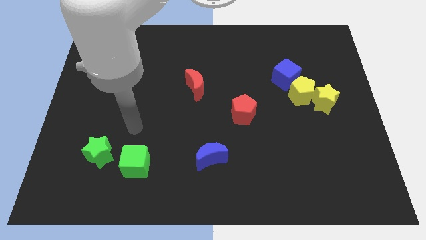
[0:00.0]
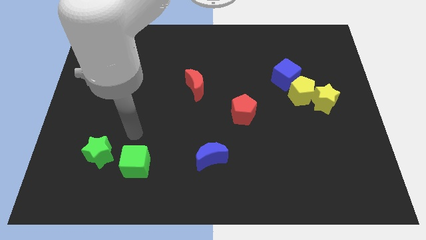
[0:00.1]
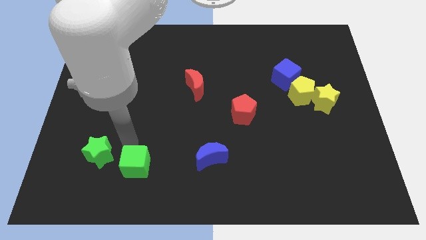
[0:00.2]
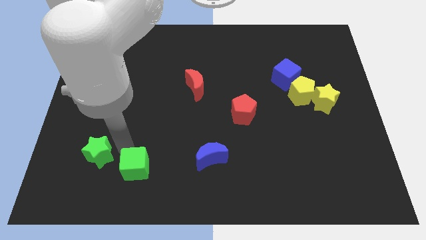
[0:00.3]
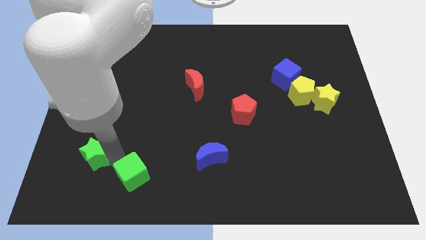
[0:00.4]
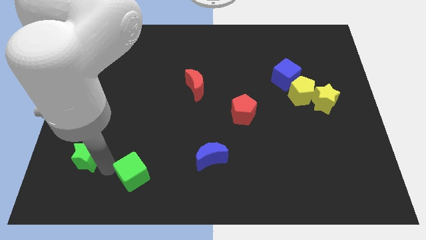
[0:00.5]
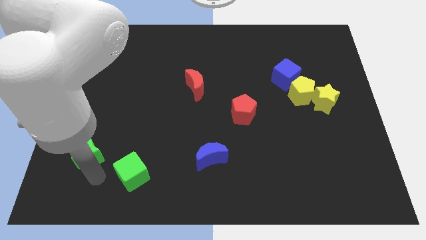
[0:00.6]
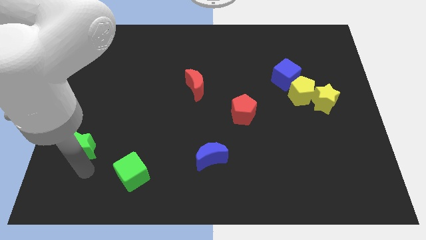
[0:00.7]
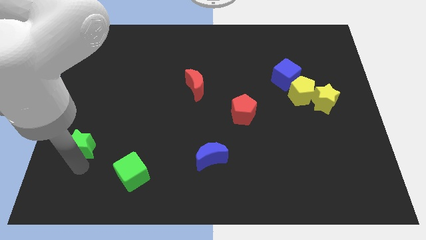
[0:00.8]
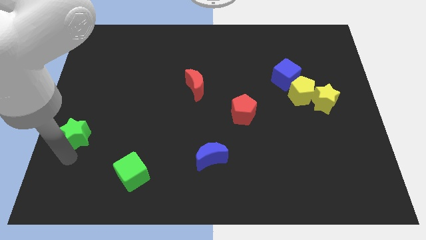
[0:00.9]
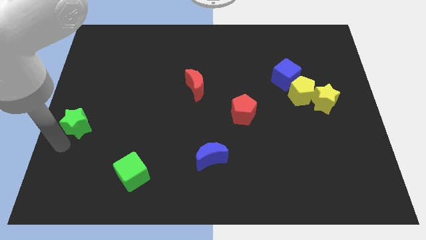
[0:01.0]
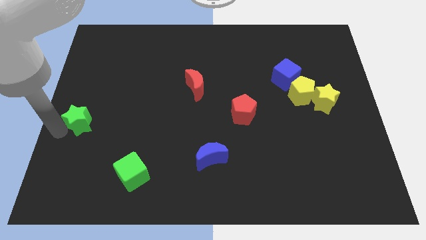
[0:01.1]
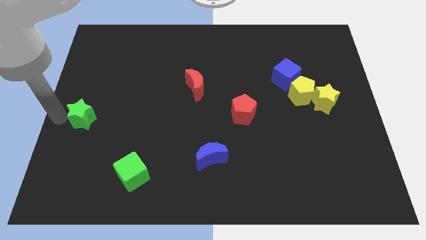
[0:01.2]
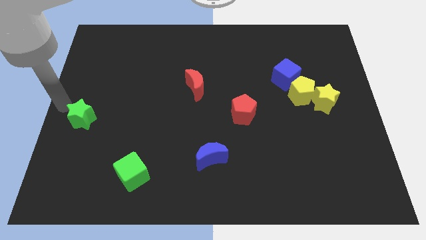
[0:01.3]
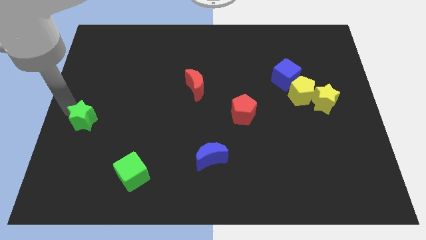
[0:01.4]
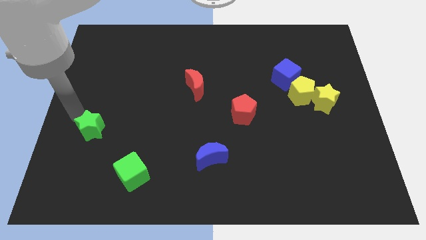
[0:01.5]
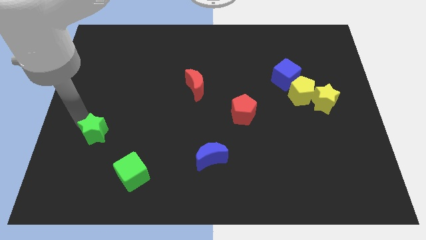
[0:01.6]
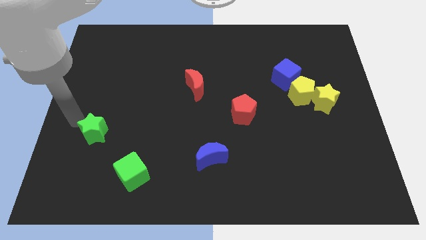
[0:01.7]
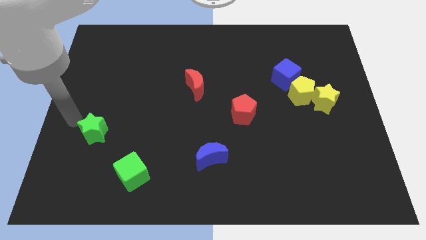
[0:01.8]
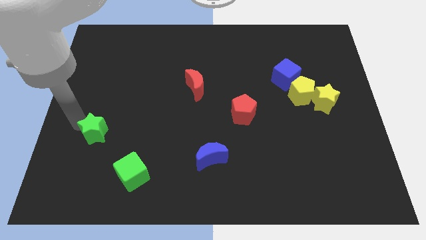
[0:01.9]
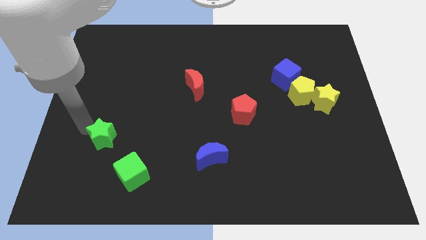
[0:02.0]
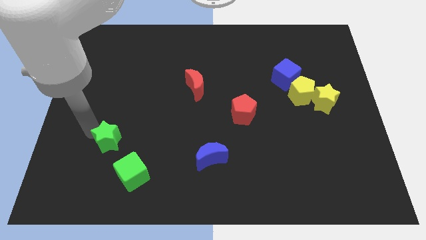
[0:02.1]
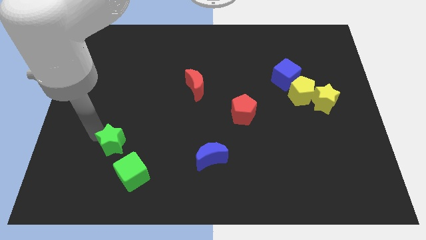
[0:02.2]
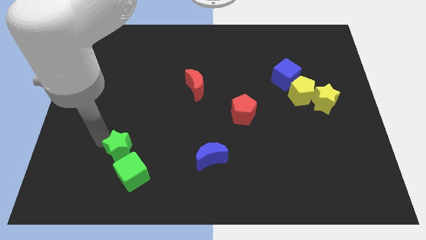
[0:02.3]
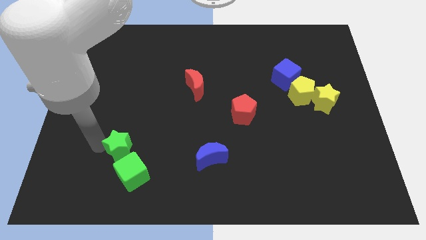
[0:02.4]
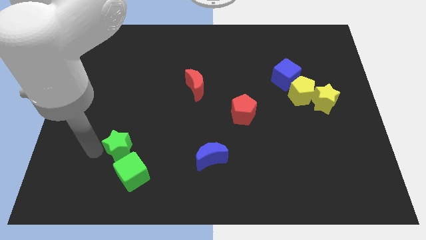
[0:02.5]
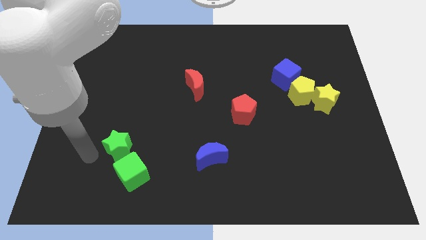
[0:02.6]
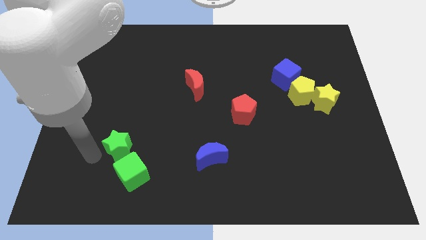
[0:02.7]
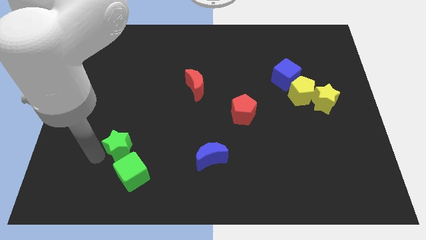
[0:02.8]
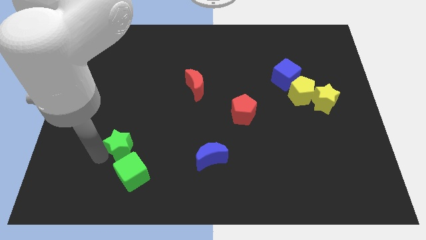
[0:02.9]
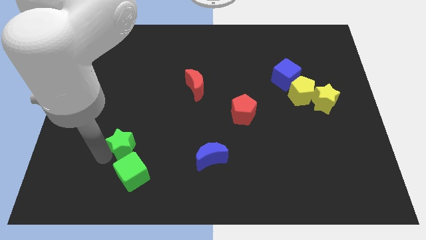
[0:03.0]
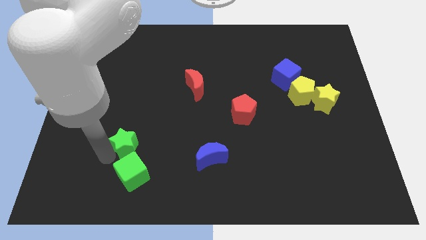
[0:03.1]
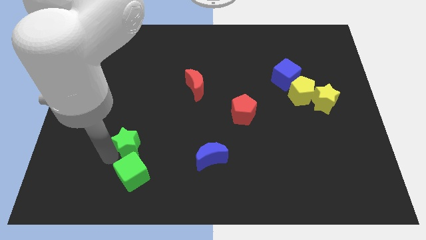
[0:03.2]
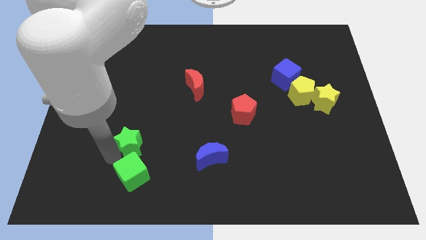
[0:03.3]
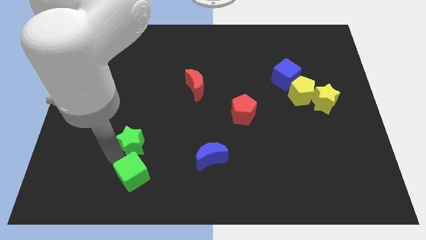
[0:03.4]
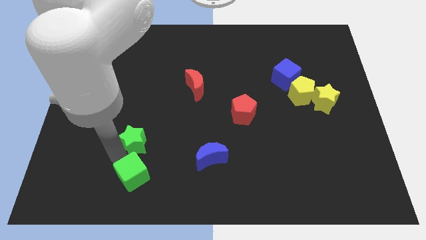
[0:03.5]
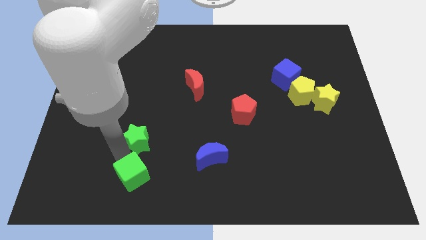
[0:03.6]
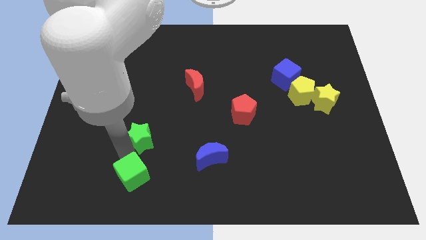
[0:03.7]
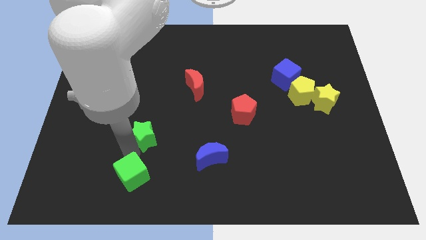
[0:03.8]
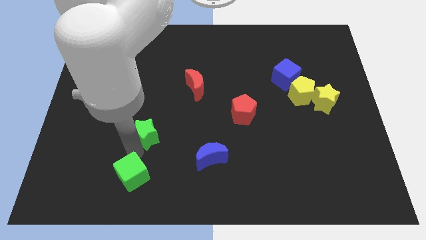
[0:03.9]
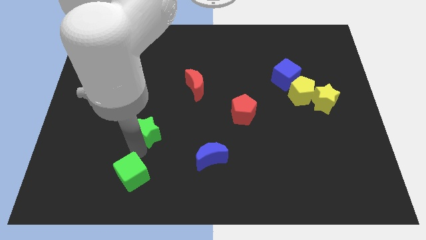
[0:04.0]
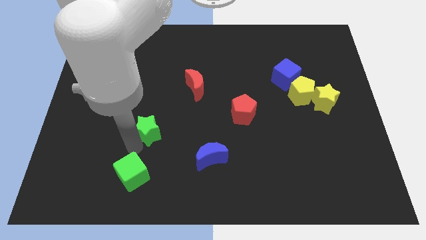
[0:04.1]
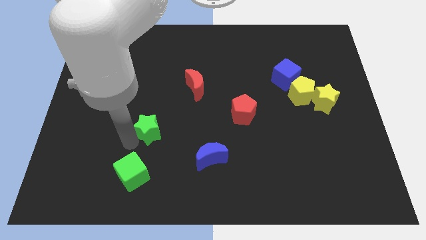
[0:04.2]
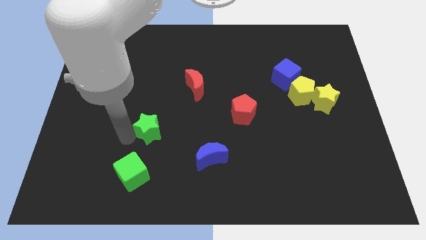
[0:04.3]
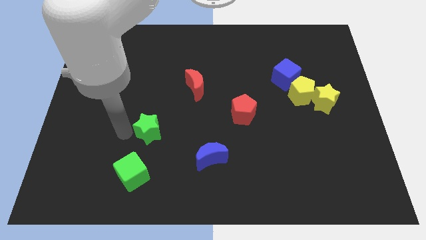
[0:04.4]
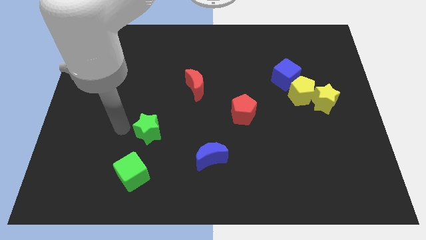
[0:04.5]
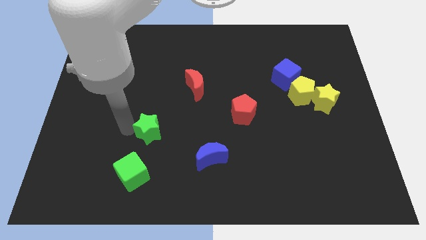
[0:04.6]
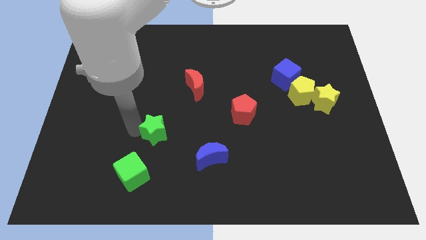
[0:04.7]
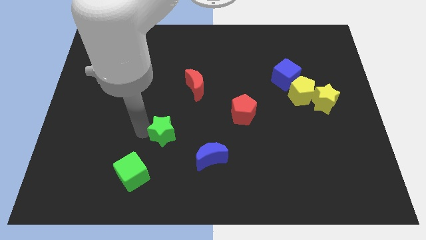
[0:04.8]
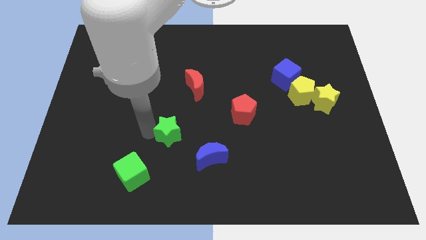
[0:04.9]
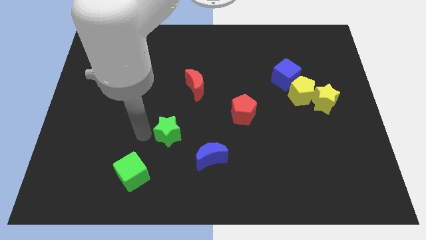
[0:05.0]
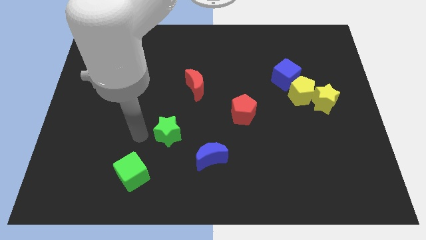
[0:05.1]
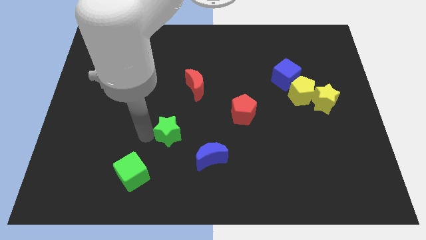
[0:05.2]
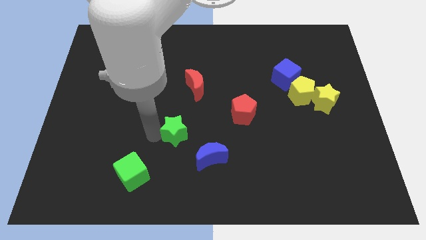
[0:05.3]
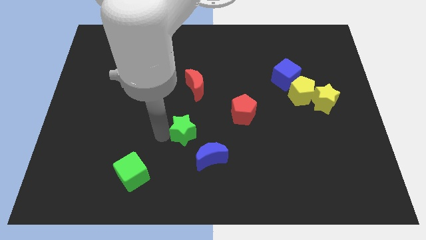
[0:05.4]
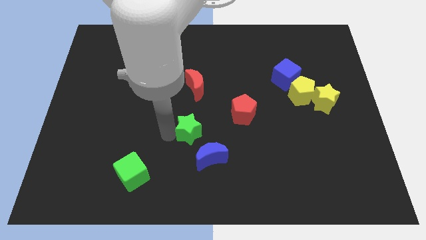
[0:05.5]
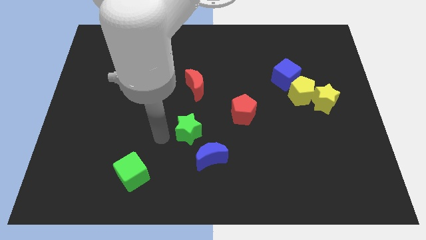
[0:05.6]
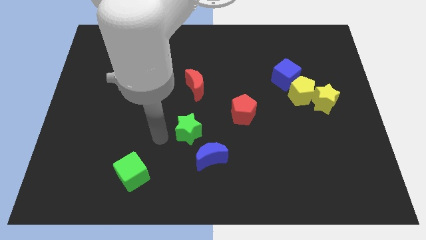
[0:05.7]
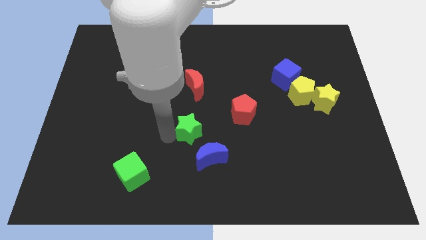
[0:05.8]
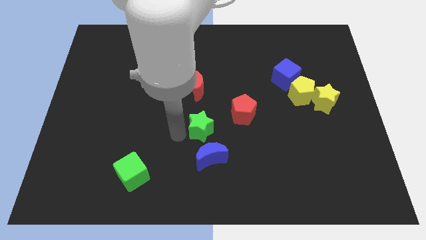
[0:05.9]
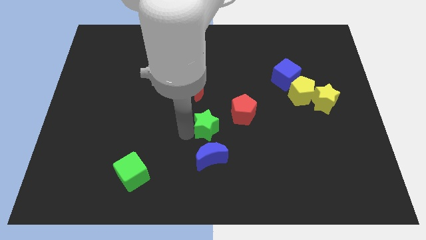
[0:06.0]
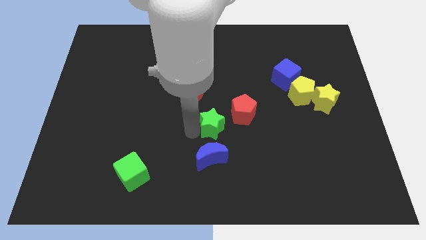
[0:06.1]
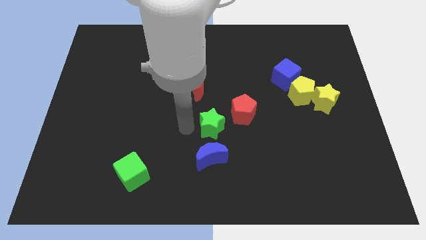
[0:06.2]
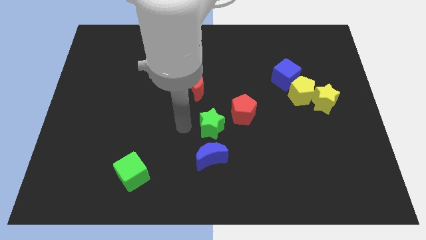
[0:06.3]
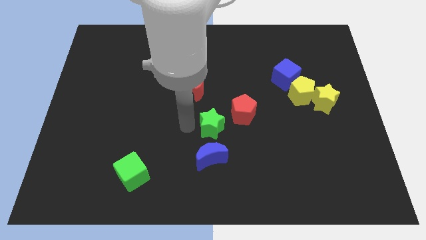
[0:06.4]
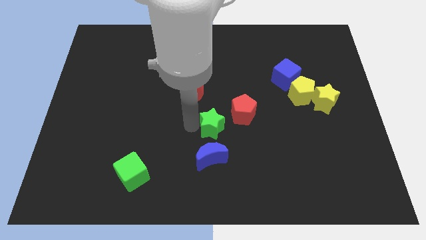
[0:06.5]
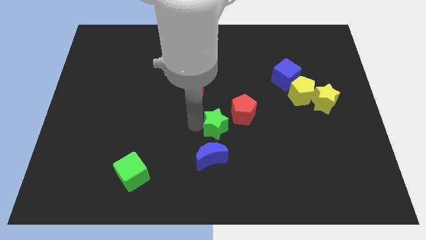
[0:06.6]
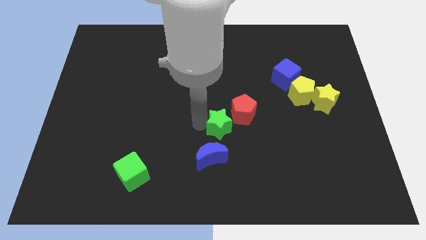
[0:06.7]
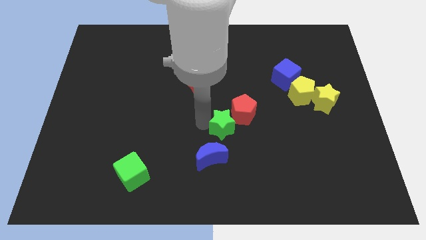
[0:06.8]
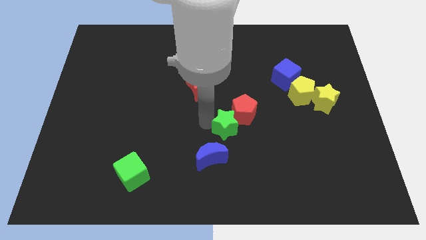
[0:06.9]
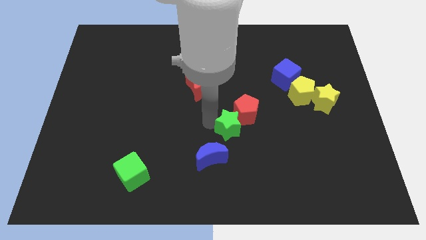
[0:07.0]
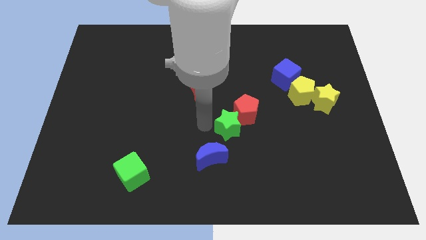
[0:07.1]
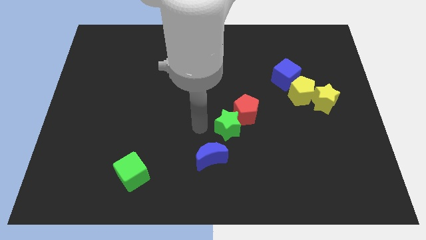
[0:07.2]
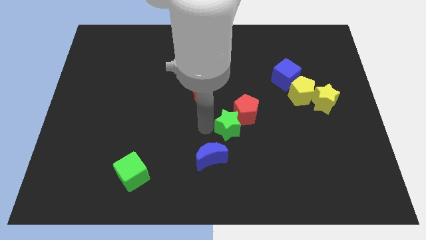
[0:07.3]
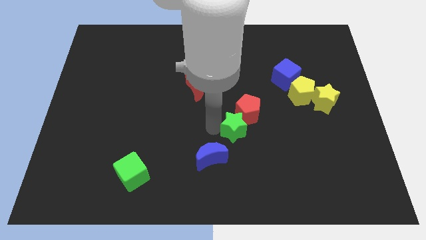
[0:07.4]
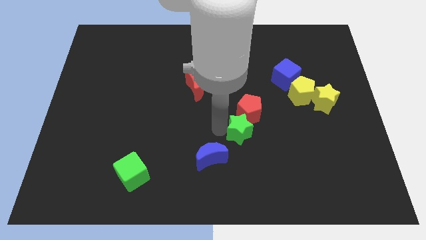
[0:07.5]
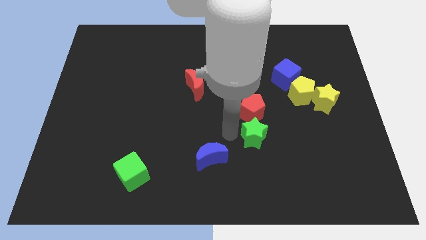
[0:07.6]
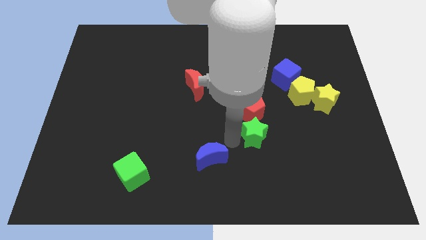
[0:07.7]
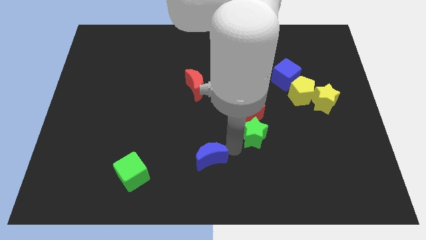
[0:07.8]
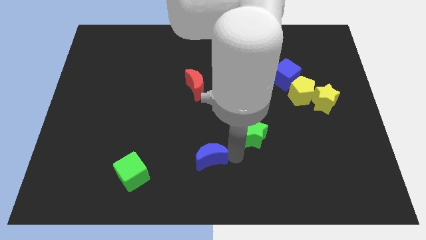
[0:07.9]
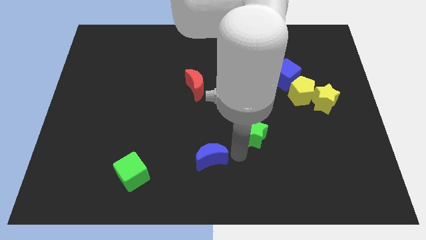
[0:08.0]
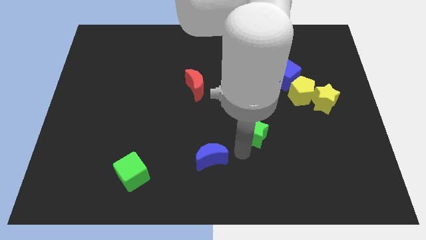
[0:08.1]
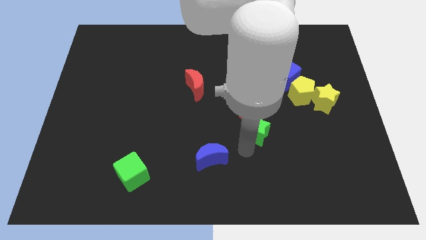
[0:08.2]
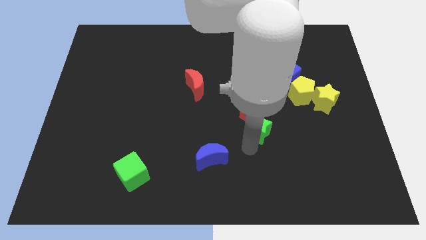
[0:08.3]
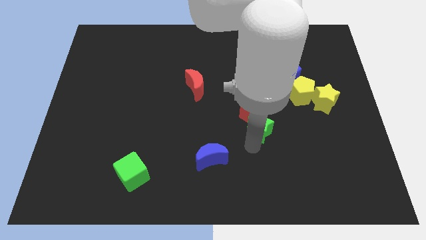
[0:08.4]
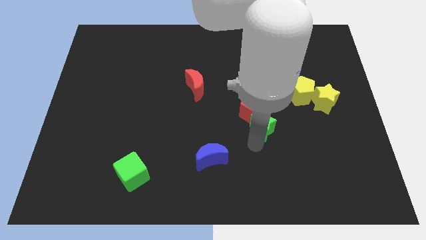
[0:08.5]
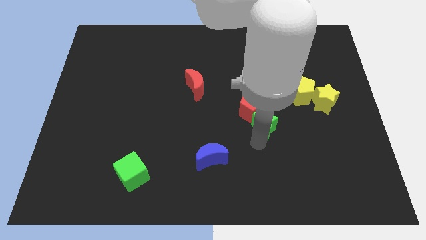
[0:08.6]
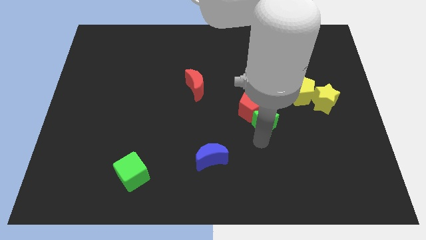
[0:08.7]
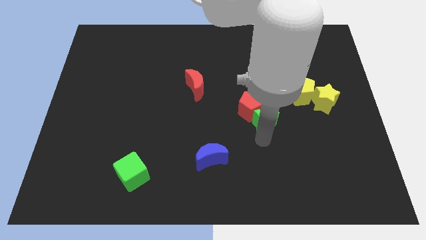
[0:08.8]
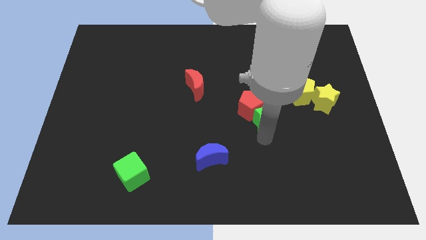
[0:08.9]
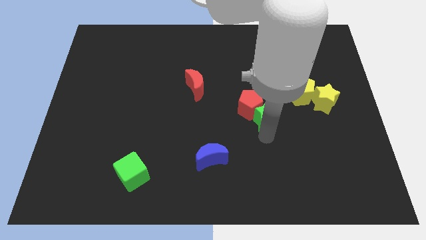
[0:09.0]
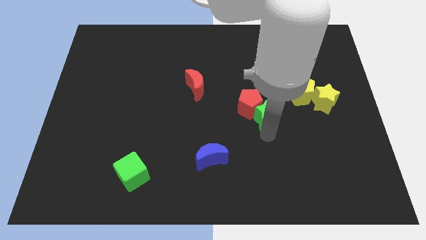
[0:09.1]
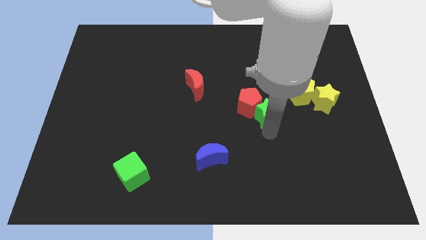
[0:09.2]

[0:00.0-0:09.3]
push the green star to the left side of the yellow star
